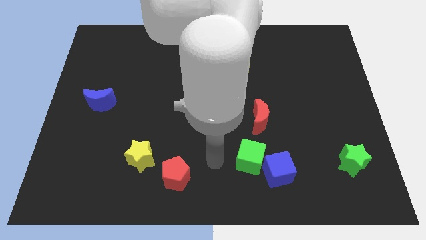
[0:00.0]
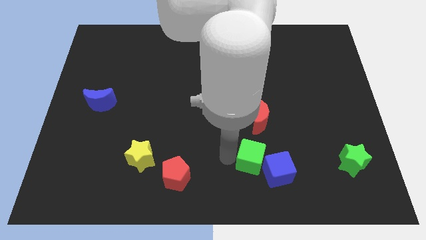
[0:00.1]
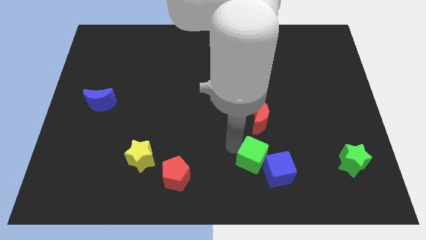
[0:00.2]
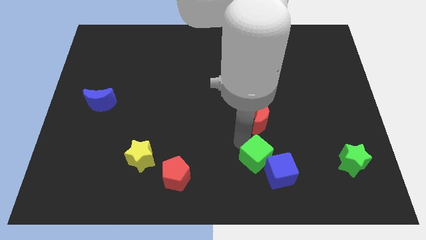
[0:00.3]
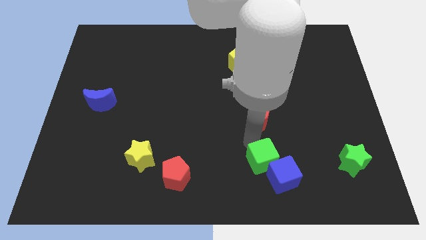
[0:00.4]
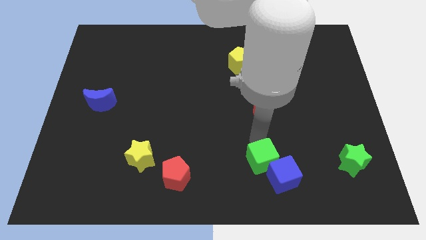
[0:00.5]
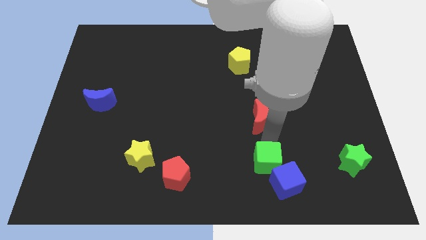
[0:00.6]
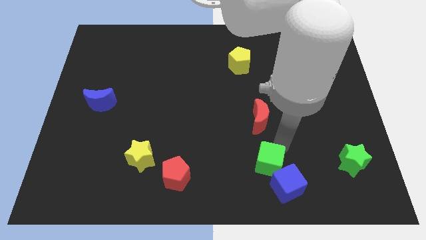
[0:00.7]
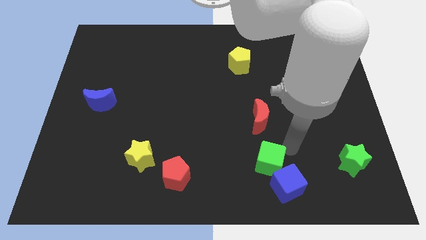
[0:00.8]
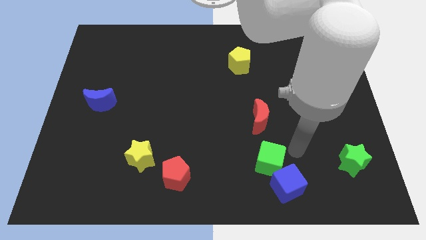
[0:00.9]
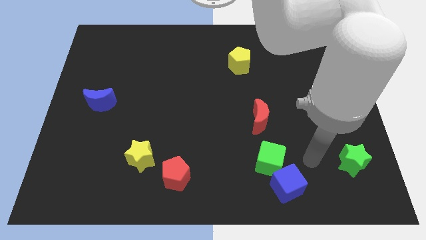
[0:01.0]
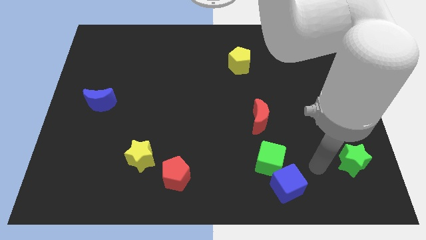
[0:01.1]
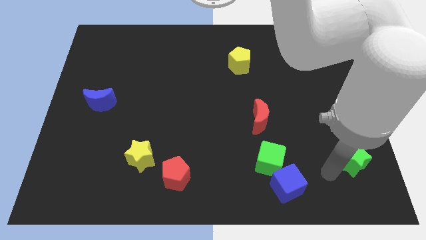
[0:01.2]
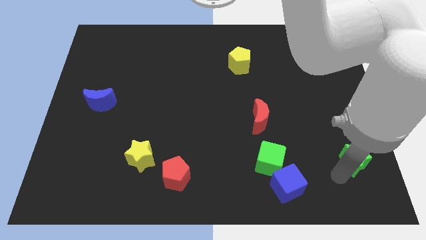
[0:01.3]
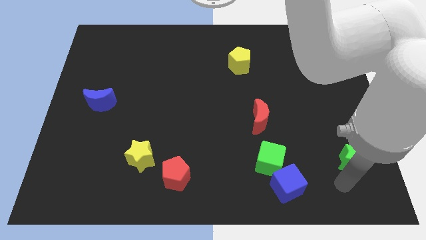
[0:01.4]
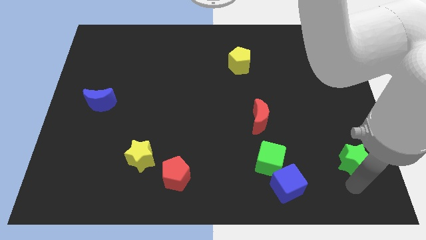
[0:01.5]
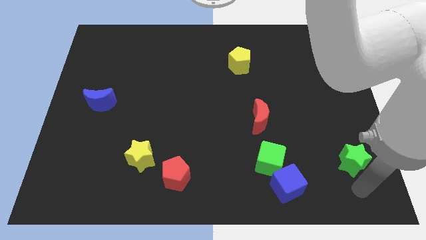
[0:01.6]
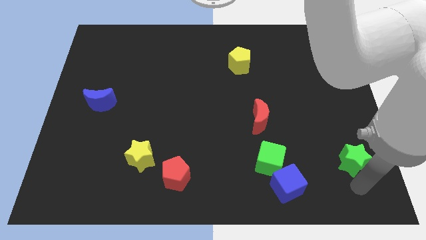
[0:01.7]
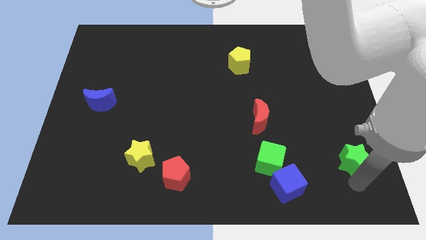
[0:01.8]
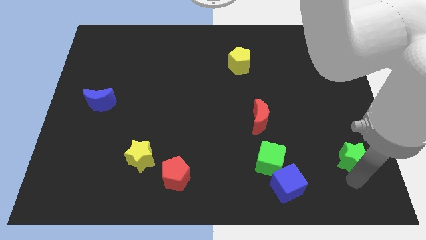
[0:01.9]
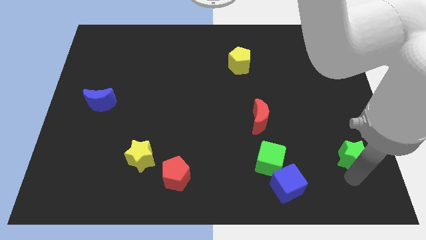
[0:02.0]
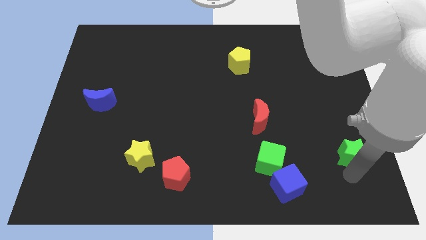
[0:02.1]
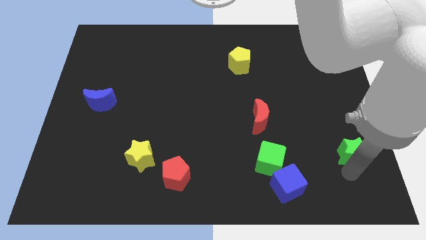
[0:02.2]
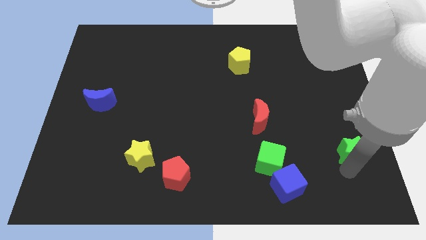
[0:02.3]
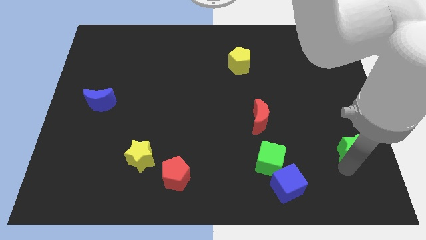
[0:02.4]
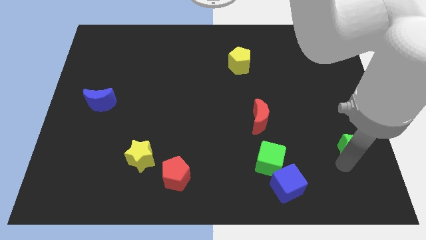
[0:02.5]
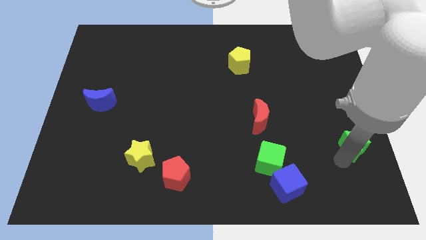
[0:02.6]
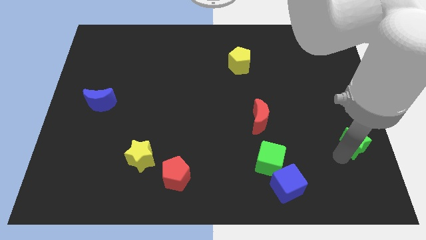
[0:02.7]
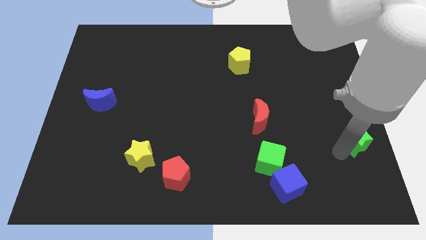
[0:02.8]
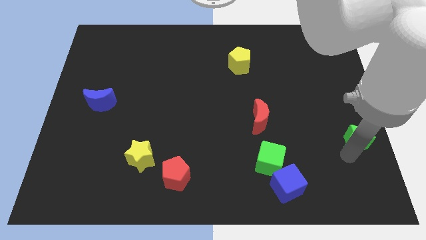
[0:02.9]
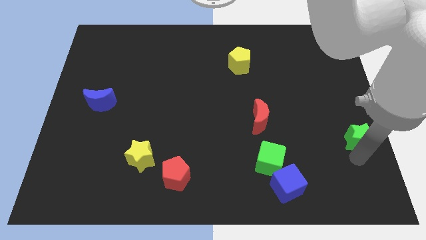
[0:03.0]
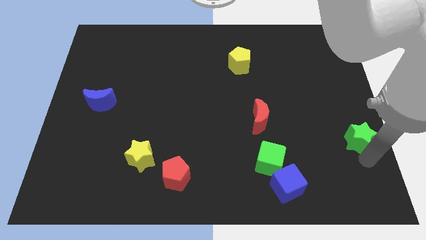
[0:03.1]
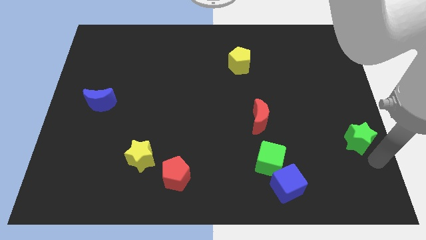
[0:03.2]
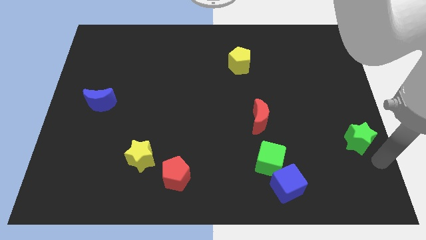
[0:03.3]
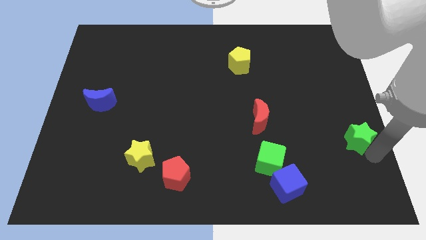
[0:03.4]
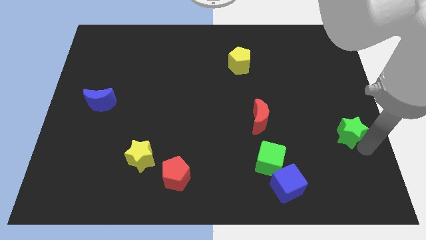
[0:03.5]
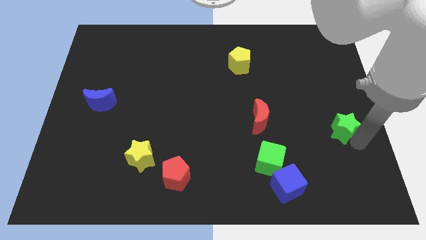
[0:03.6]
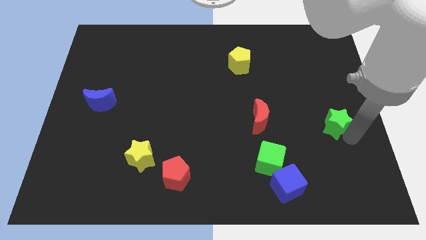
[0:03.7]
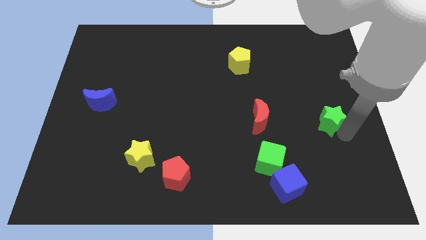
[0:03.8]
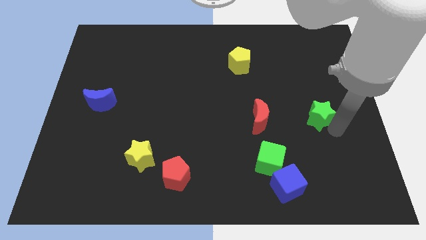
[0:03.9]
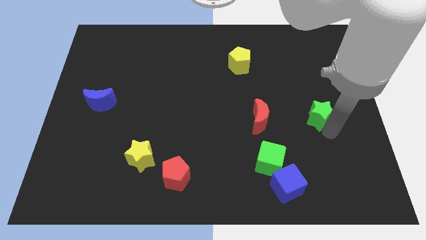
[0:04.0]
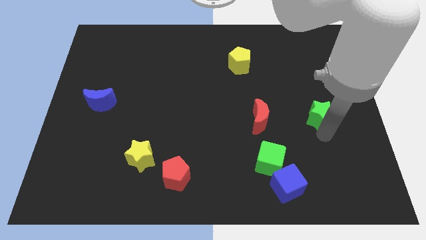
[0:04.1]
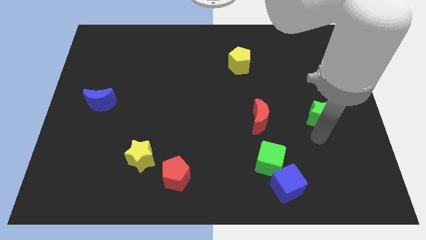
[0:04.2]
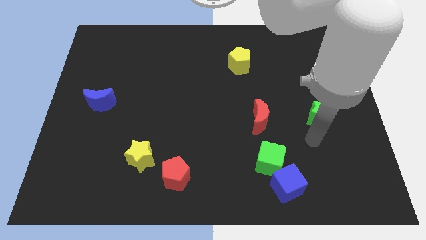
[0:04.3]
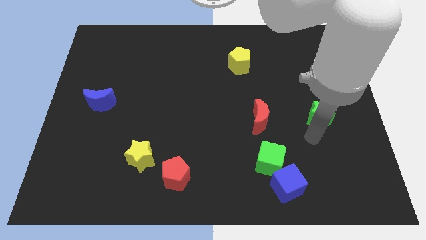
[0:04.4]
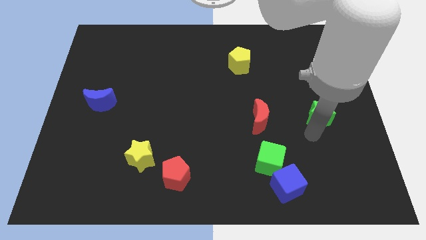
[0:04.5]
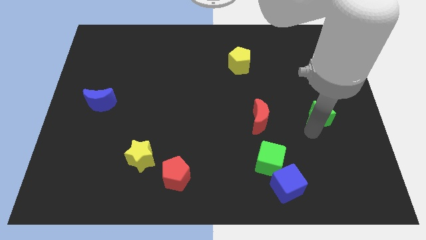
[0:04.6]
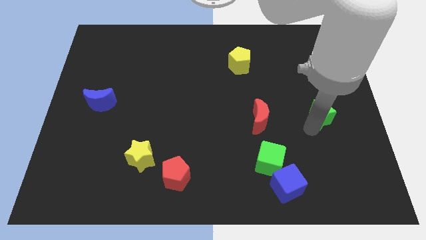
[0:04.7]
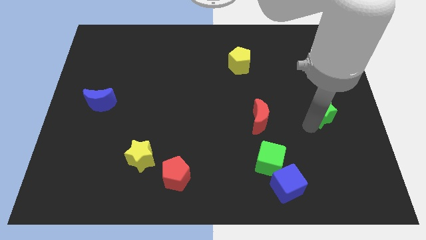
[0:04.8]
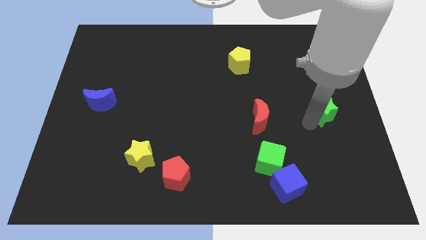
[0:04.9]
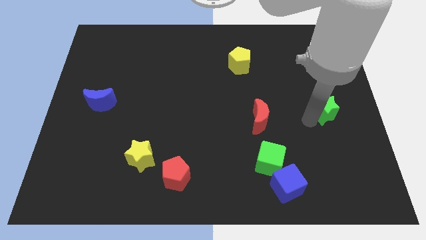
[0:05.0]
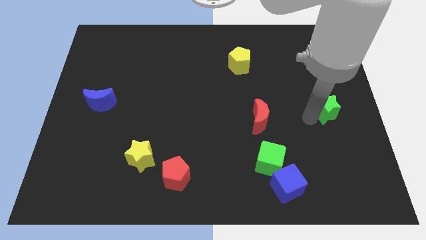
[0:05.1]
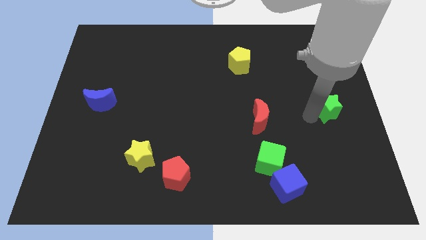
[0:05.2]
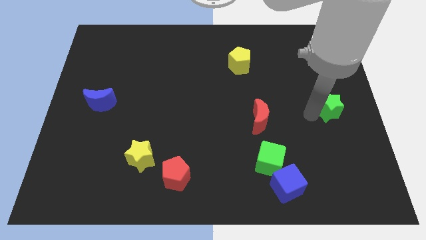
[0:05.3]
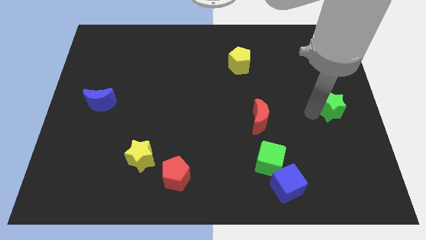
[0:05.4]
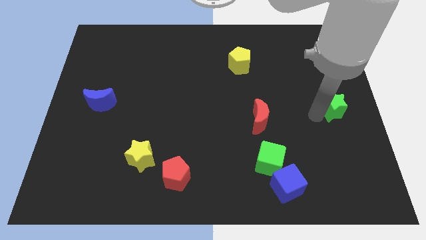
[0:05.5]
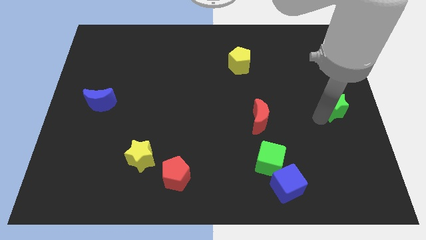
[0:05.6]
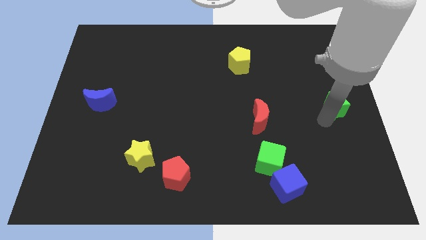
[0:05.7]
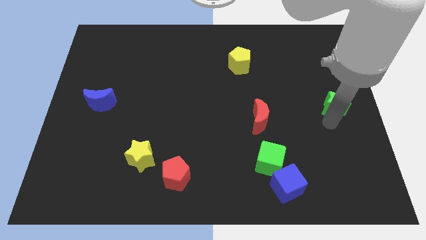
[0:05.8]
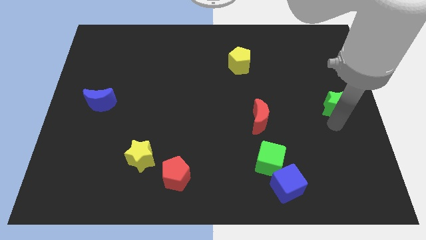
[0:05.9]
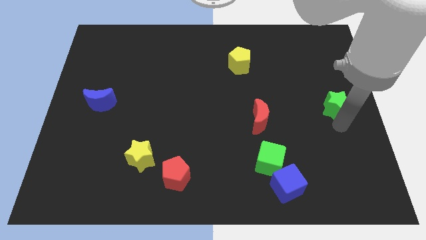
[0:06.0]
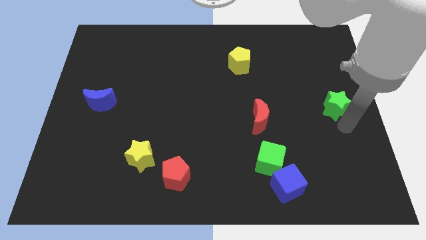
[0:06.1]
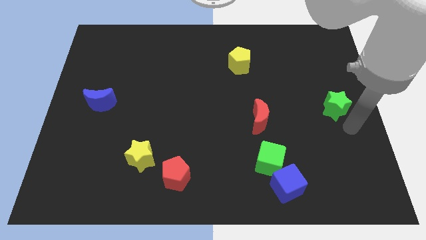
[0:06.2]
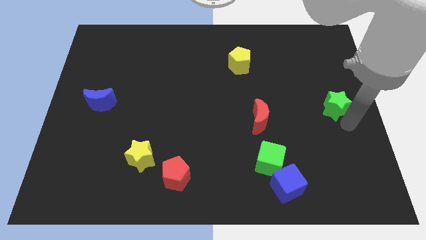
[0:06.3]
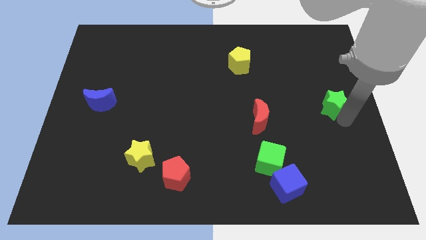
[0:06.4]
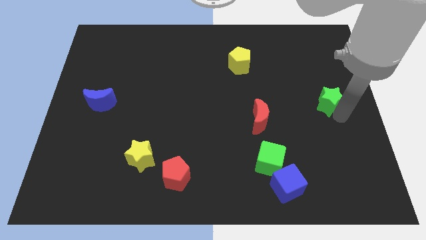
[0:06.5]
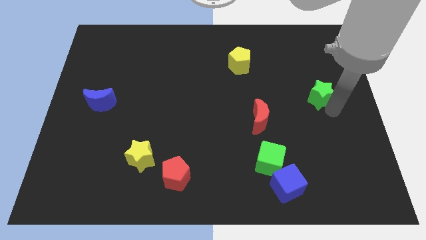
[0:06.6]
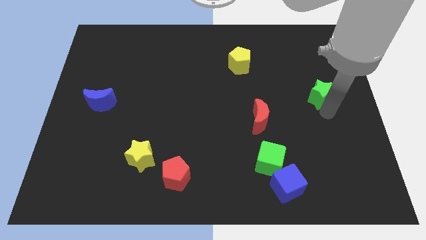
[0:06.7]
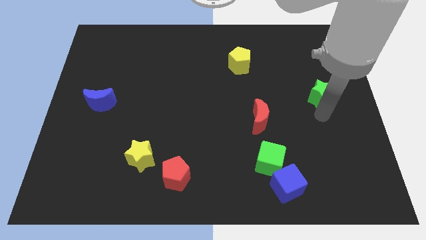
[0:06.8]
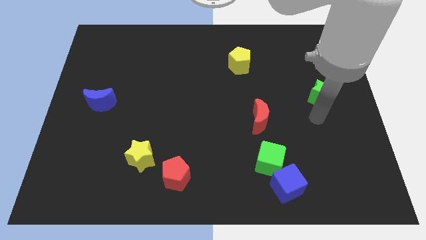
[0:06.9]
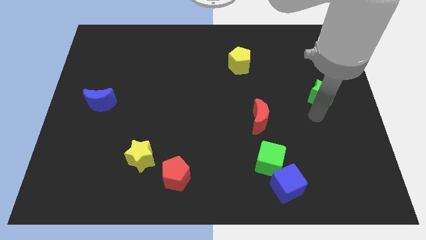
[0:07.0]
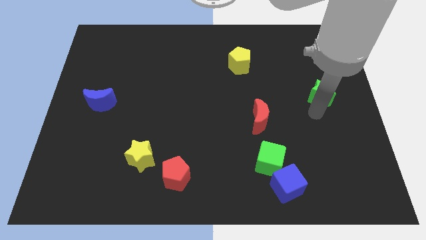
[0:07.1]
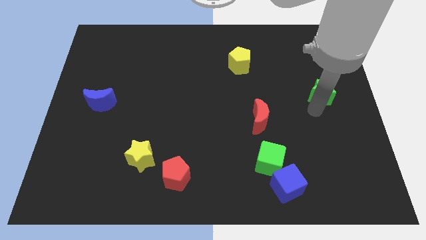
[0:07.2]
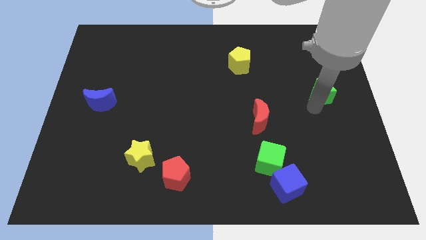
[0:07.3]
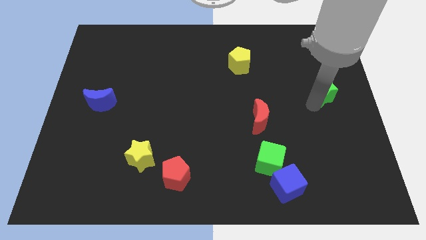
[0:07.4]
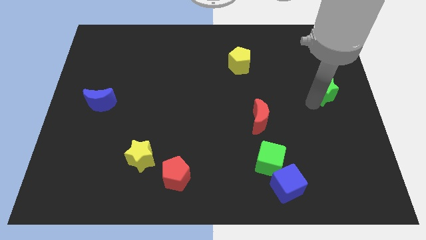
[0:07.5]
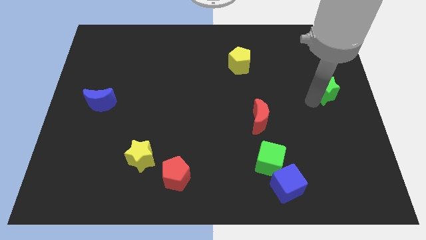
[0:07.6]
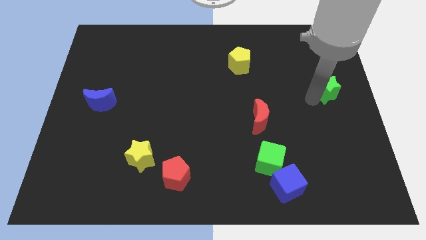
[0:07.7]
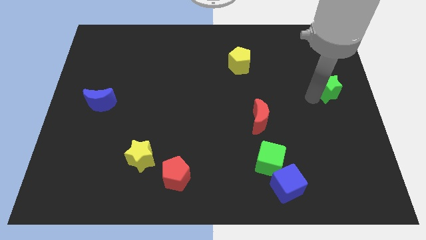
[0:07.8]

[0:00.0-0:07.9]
move the green star up

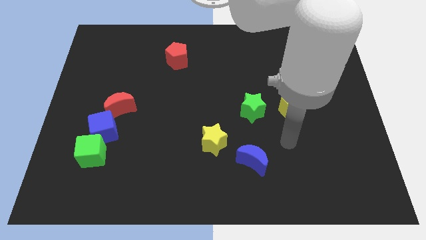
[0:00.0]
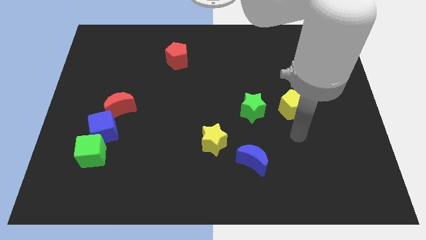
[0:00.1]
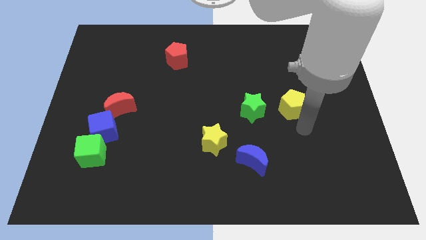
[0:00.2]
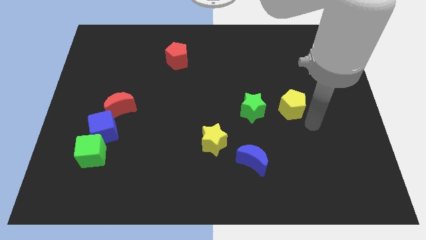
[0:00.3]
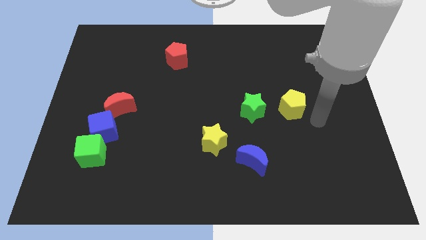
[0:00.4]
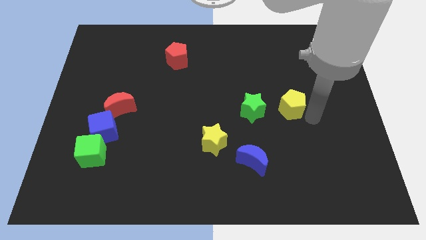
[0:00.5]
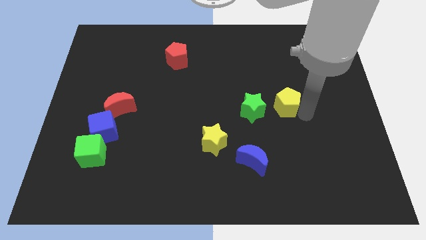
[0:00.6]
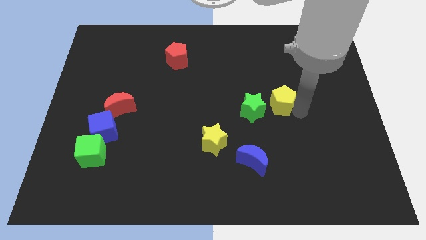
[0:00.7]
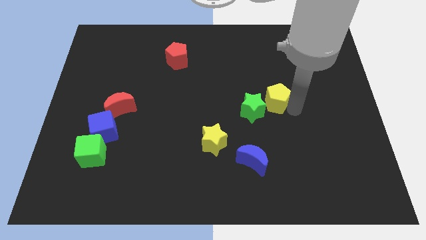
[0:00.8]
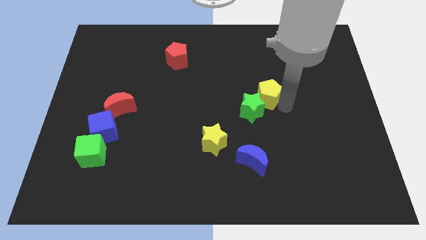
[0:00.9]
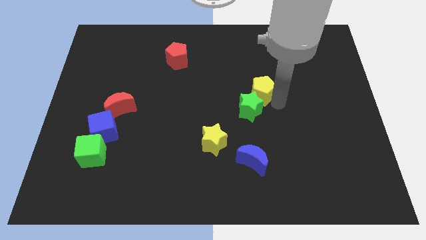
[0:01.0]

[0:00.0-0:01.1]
push the yellow pentagon a little bit up and to the left diagonally
